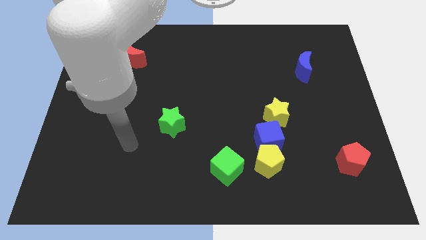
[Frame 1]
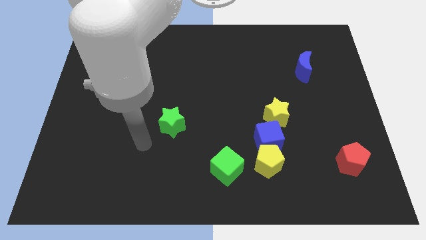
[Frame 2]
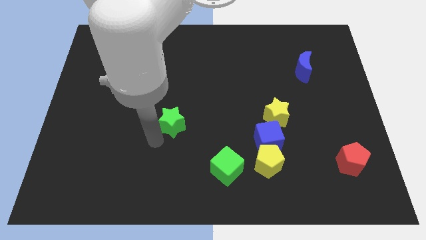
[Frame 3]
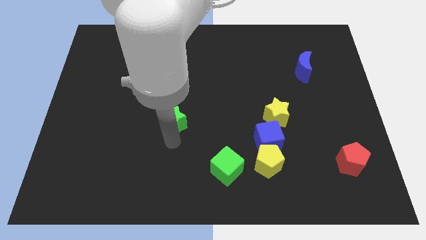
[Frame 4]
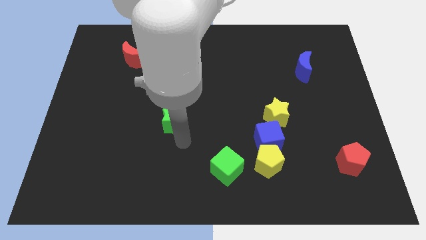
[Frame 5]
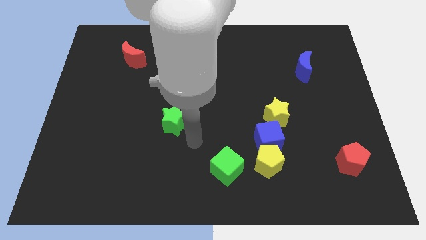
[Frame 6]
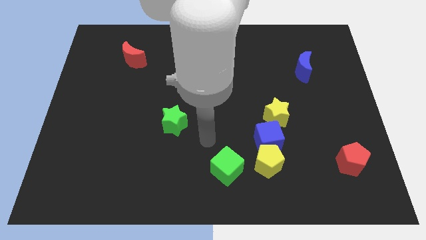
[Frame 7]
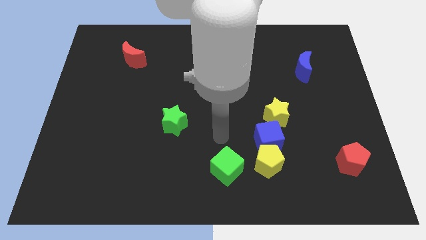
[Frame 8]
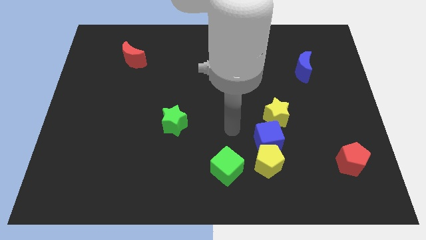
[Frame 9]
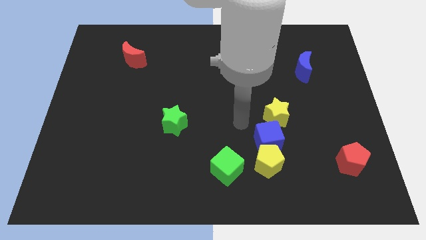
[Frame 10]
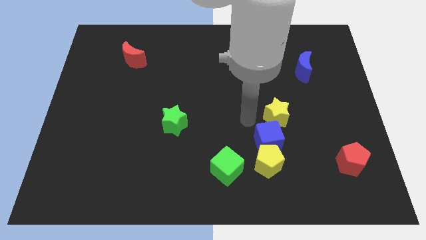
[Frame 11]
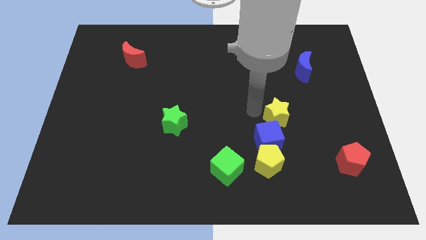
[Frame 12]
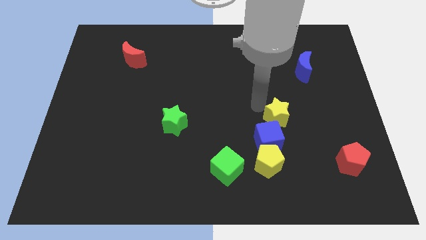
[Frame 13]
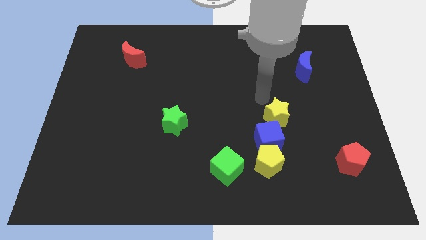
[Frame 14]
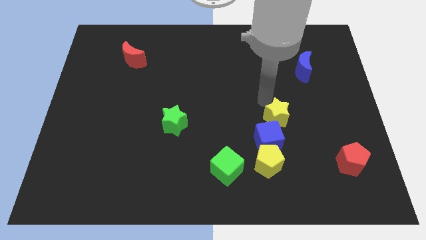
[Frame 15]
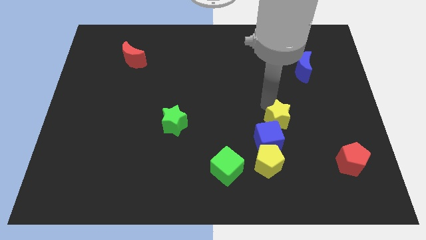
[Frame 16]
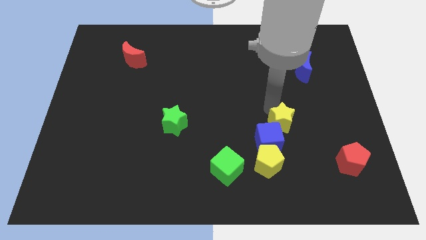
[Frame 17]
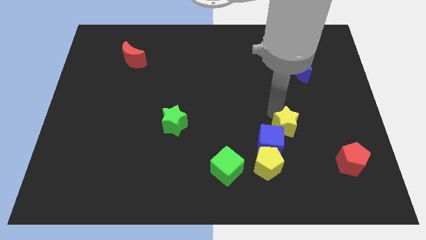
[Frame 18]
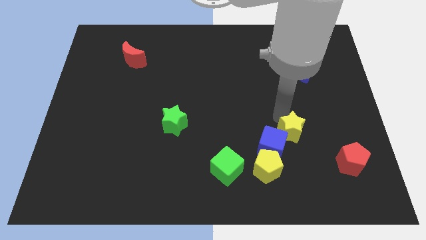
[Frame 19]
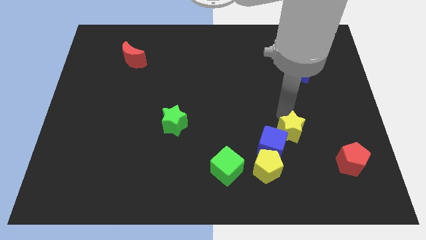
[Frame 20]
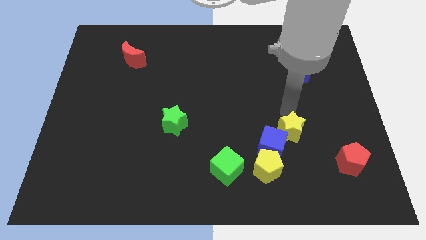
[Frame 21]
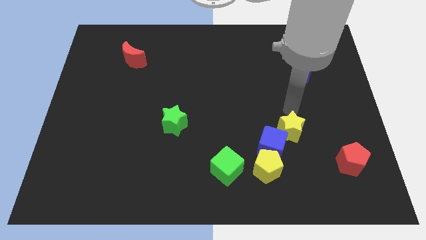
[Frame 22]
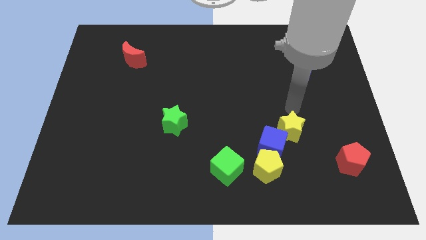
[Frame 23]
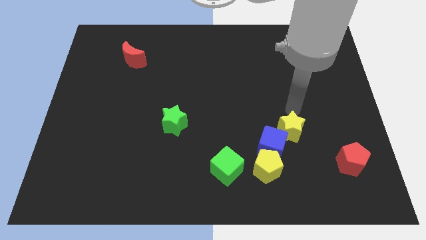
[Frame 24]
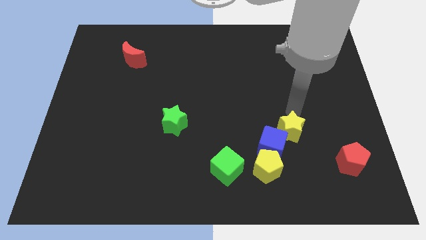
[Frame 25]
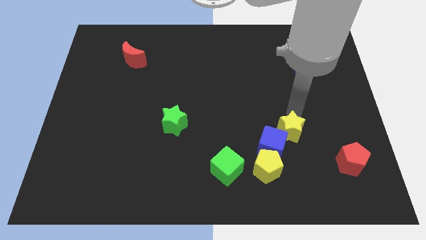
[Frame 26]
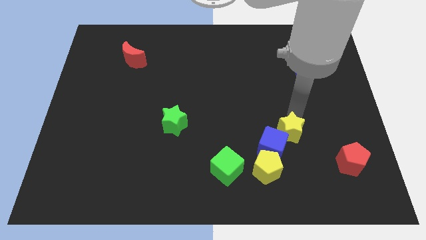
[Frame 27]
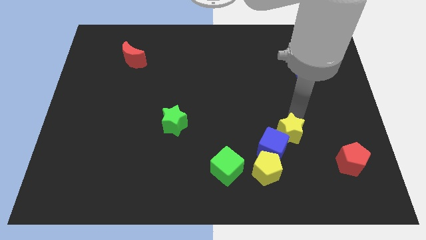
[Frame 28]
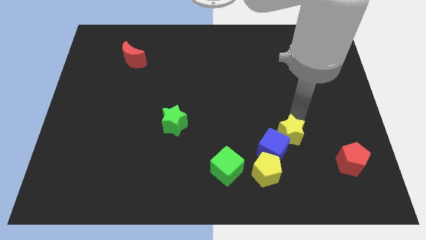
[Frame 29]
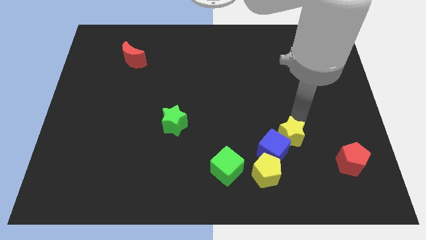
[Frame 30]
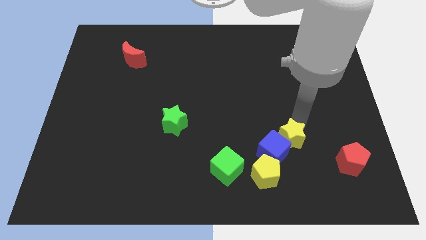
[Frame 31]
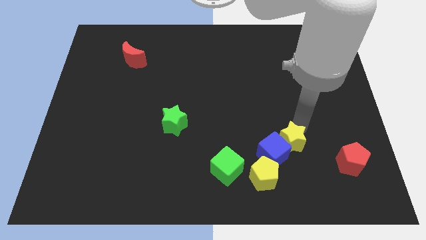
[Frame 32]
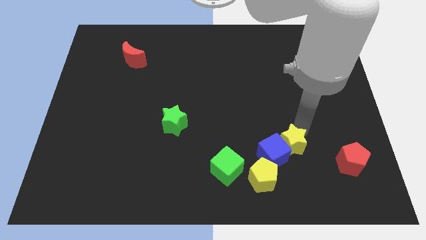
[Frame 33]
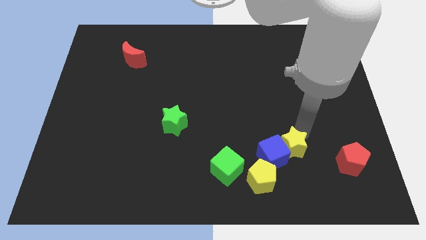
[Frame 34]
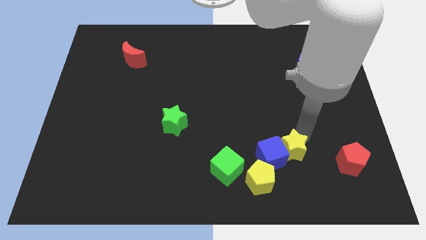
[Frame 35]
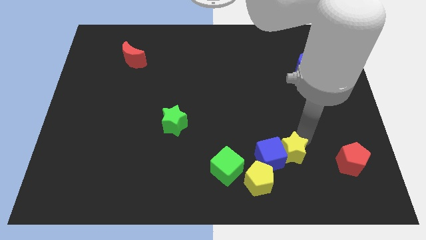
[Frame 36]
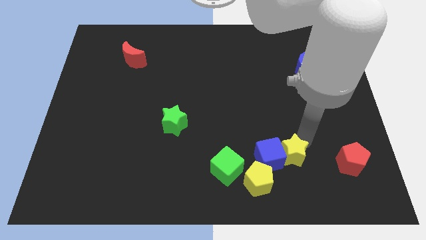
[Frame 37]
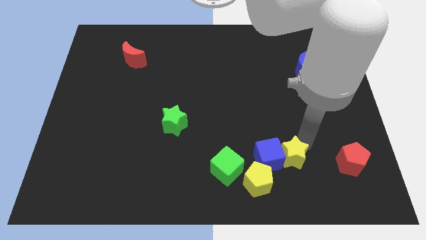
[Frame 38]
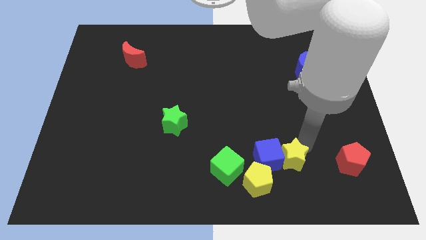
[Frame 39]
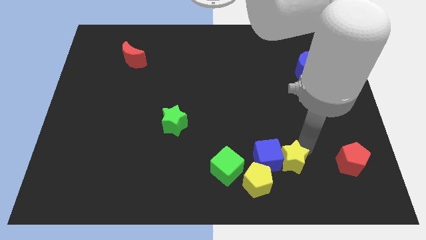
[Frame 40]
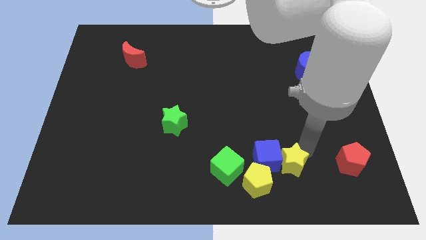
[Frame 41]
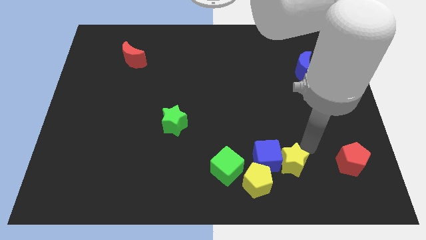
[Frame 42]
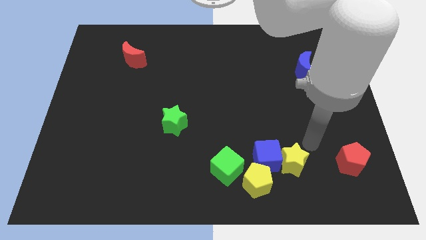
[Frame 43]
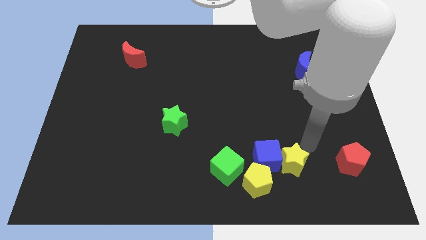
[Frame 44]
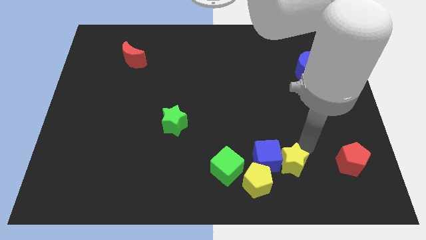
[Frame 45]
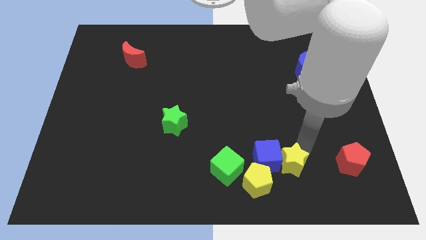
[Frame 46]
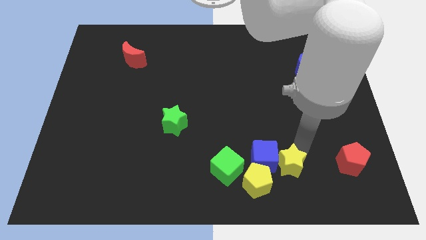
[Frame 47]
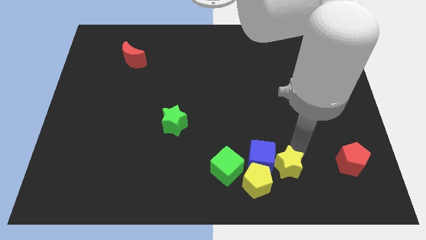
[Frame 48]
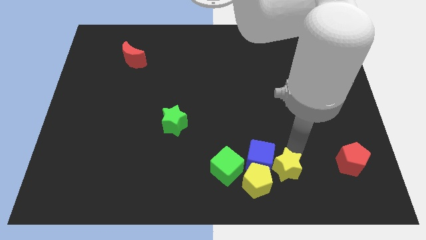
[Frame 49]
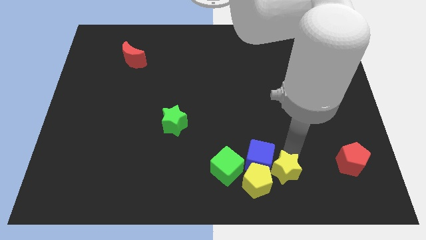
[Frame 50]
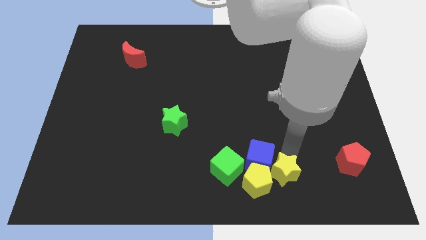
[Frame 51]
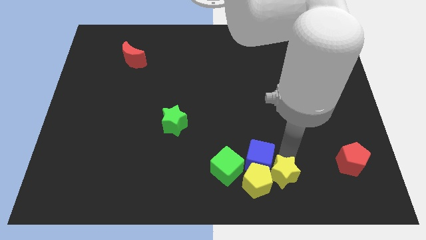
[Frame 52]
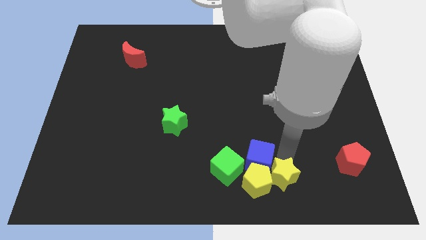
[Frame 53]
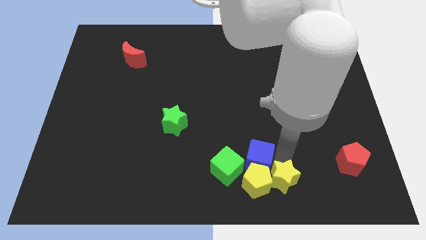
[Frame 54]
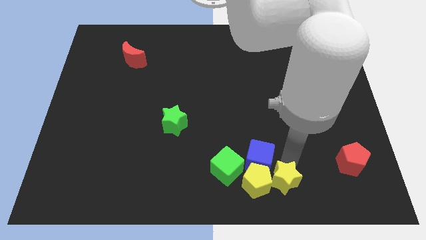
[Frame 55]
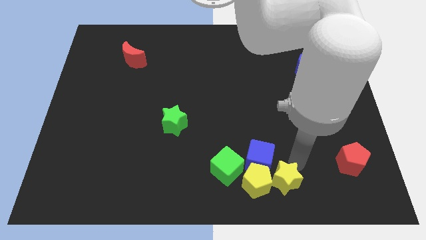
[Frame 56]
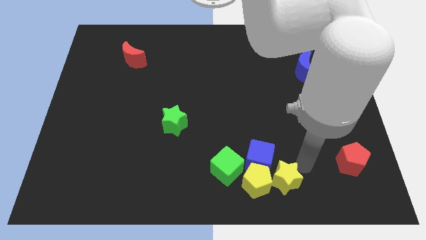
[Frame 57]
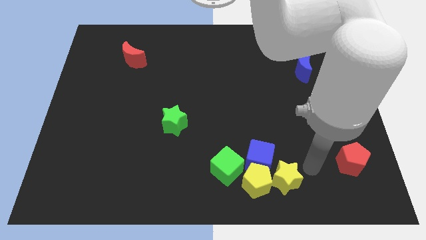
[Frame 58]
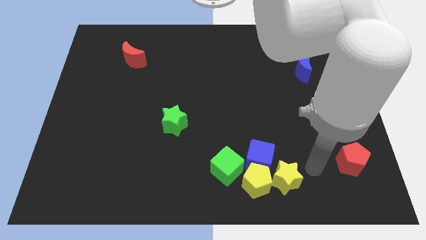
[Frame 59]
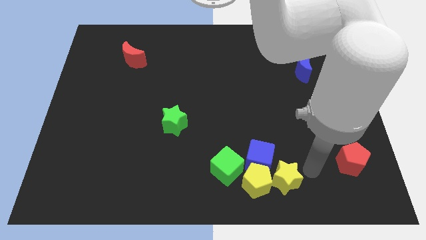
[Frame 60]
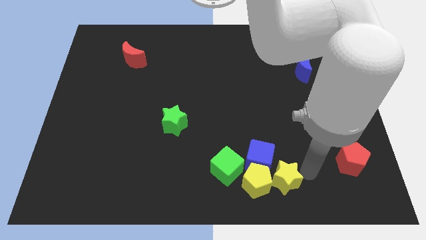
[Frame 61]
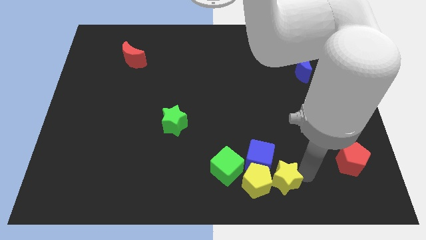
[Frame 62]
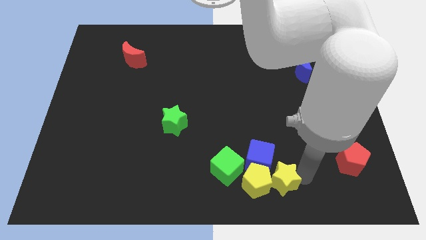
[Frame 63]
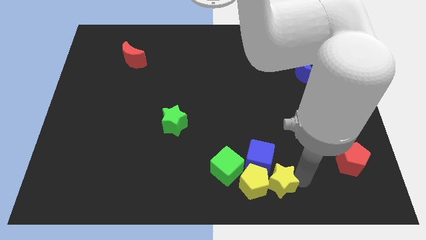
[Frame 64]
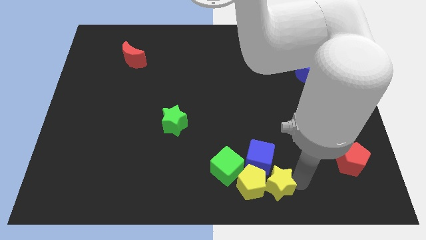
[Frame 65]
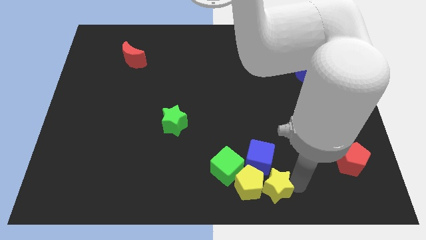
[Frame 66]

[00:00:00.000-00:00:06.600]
put the yellow star to the bottom

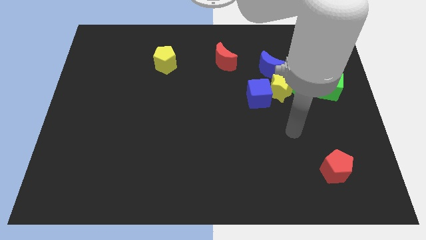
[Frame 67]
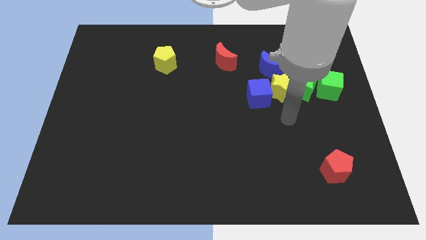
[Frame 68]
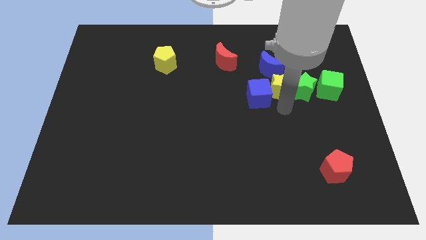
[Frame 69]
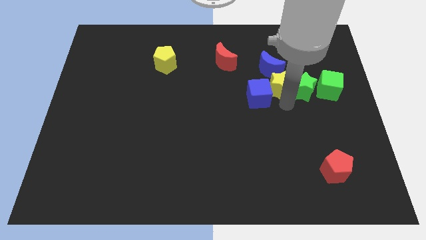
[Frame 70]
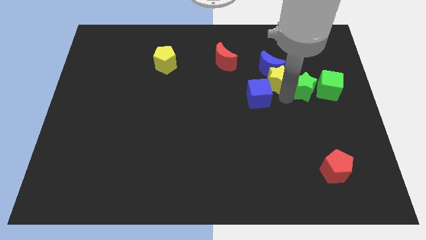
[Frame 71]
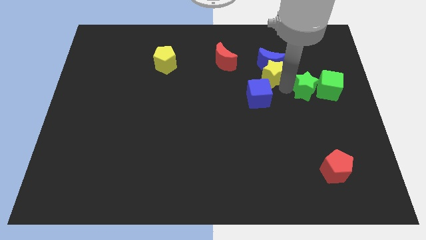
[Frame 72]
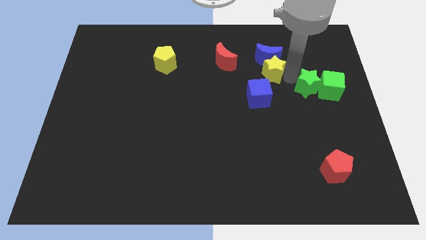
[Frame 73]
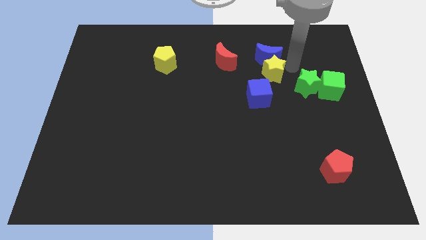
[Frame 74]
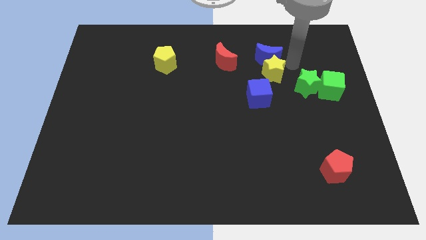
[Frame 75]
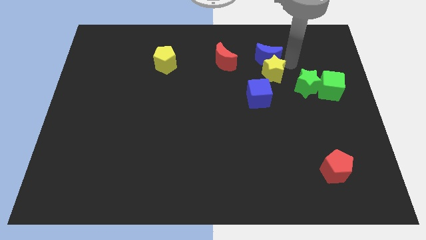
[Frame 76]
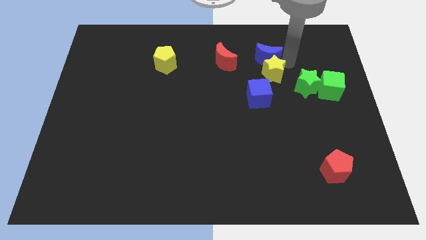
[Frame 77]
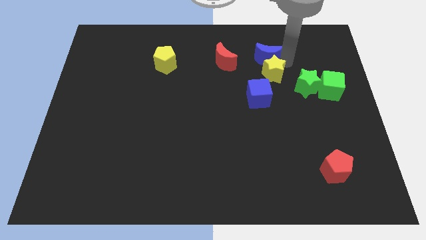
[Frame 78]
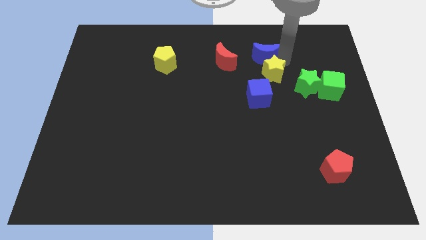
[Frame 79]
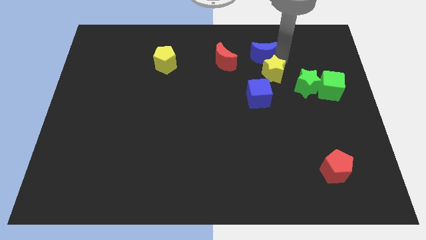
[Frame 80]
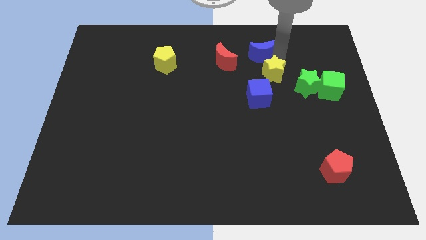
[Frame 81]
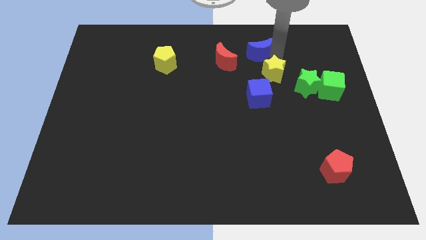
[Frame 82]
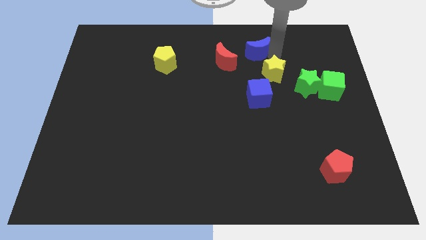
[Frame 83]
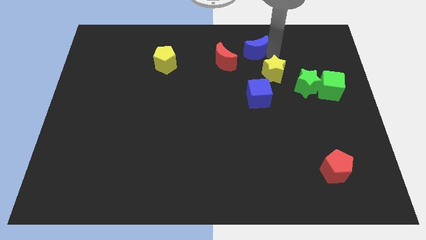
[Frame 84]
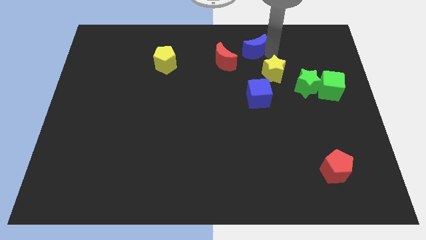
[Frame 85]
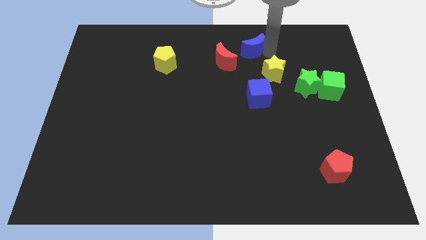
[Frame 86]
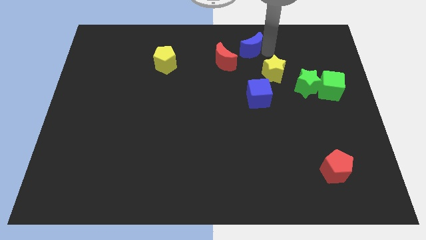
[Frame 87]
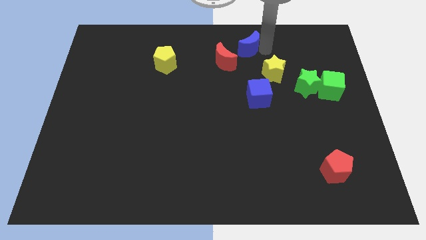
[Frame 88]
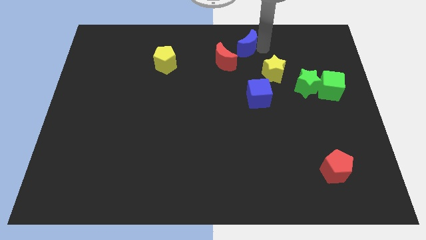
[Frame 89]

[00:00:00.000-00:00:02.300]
slide the blue moon to the top
